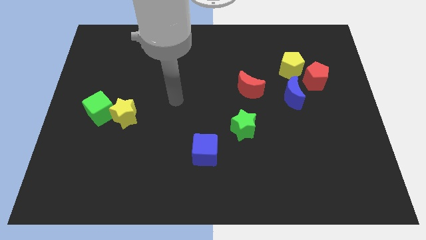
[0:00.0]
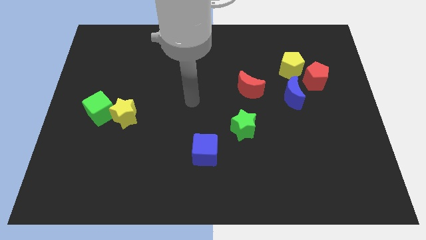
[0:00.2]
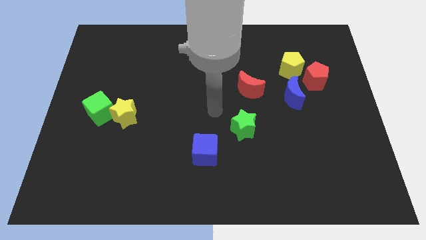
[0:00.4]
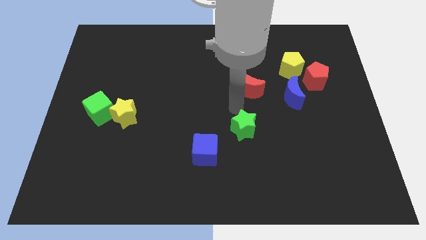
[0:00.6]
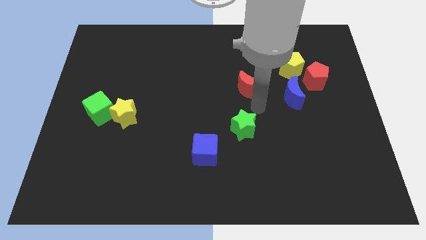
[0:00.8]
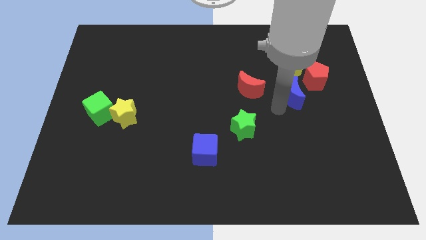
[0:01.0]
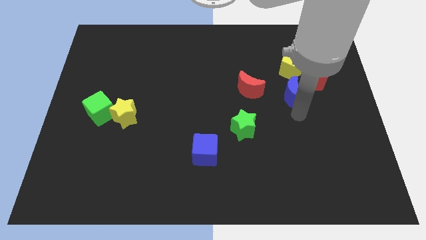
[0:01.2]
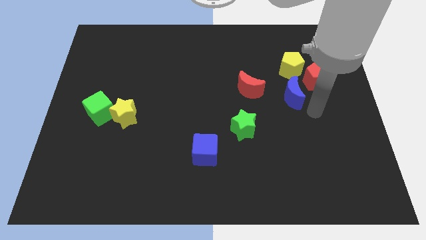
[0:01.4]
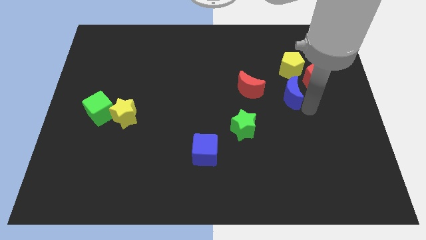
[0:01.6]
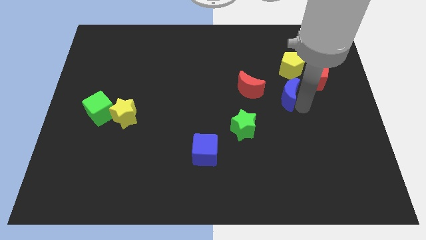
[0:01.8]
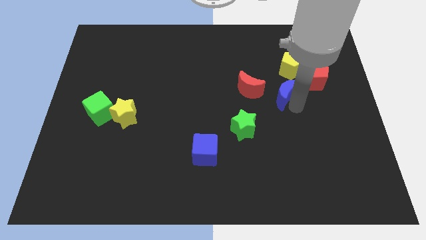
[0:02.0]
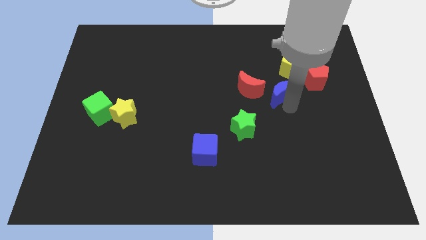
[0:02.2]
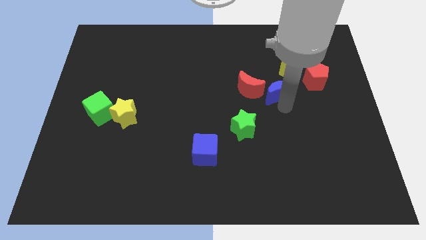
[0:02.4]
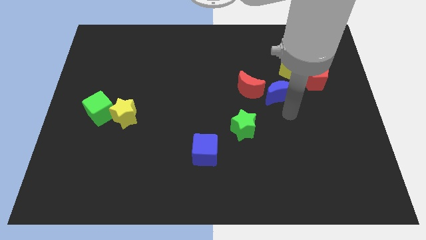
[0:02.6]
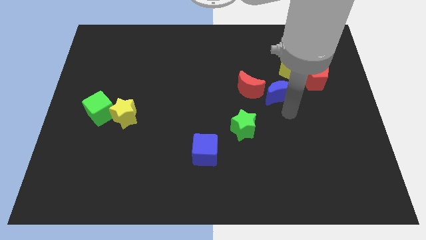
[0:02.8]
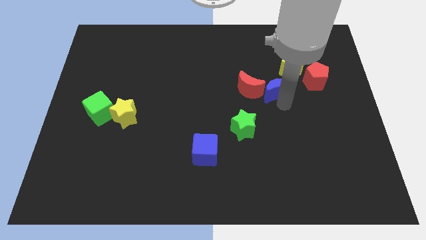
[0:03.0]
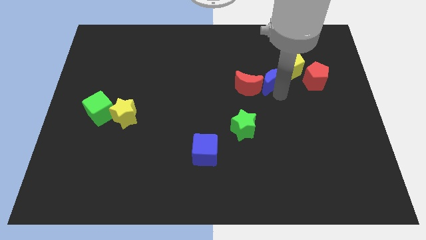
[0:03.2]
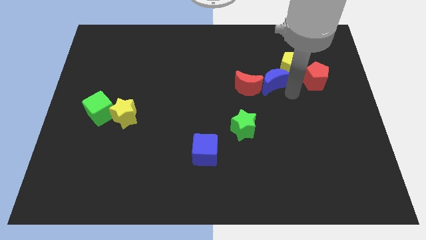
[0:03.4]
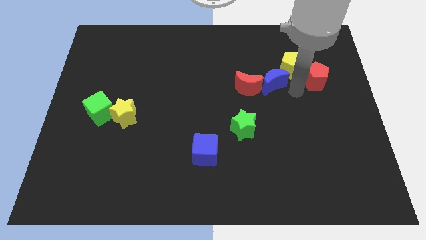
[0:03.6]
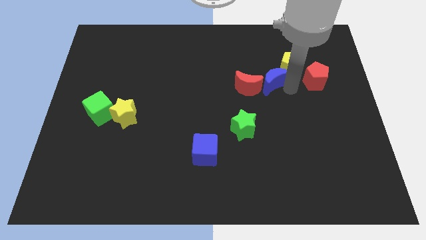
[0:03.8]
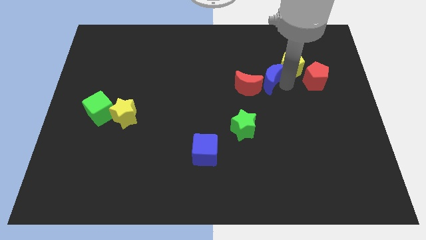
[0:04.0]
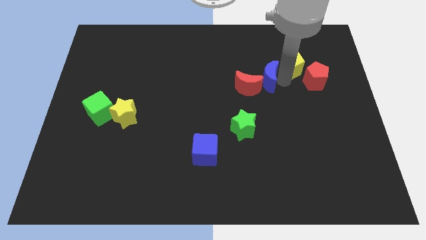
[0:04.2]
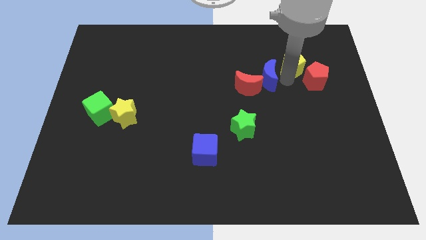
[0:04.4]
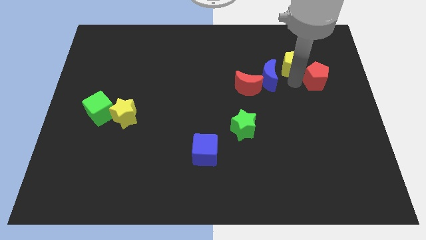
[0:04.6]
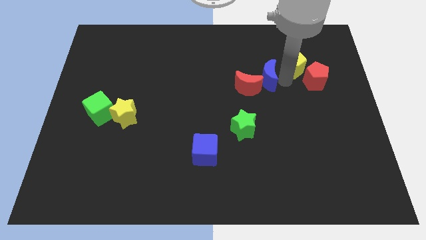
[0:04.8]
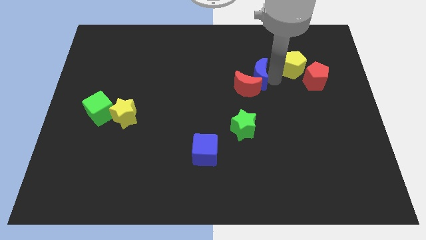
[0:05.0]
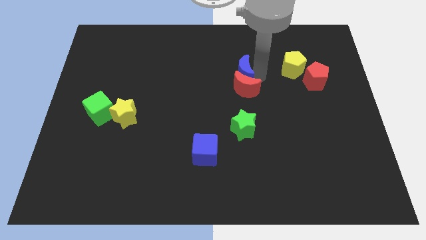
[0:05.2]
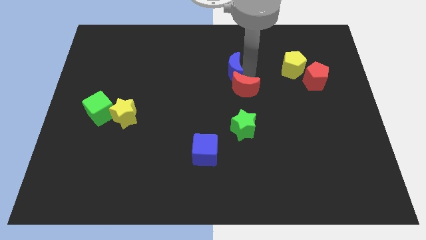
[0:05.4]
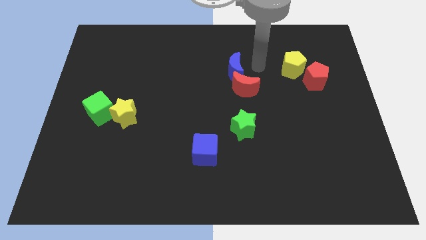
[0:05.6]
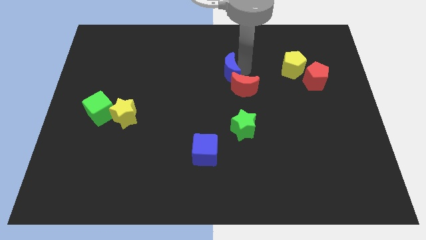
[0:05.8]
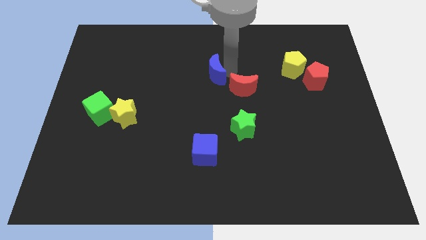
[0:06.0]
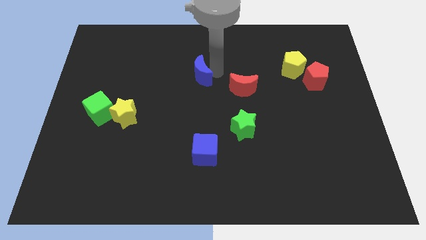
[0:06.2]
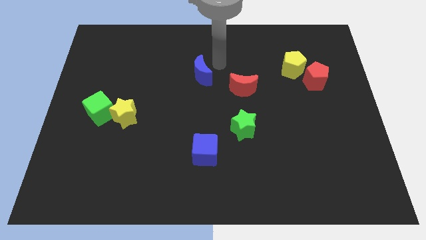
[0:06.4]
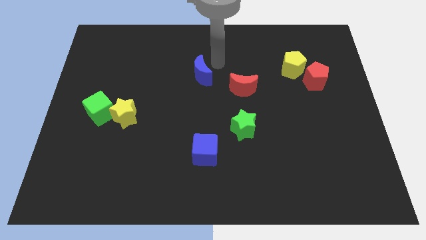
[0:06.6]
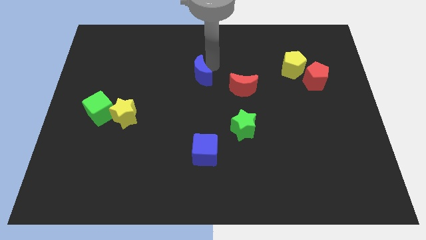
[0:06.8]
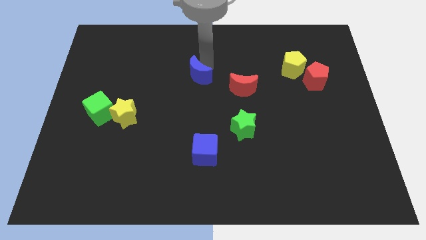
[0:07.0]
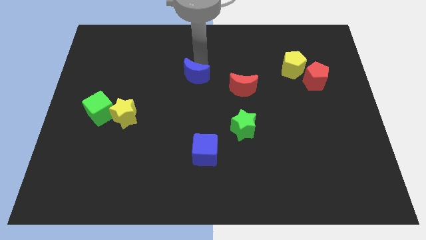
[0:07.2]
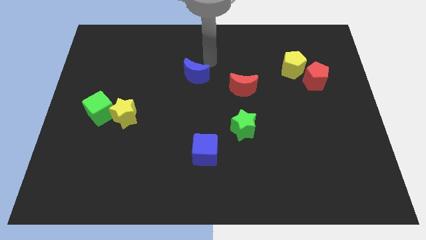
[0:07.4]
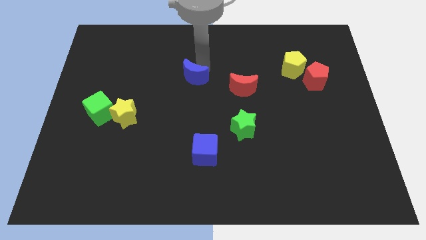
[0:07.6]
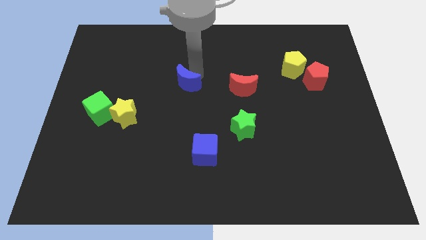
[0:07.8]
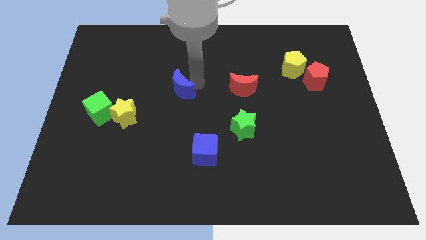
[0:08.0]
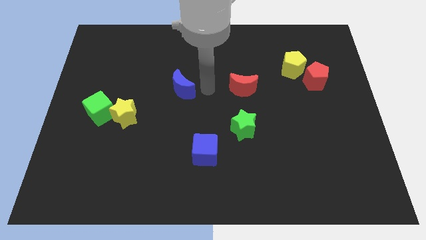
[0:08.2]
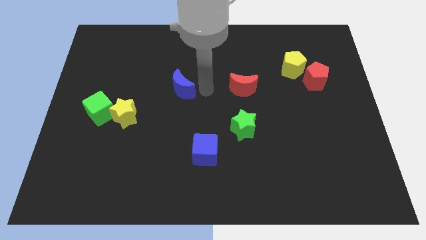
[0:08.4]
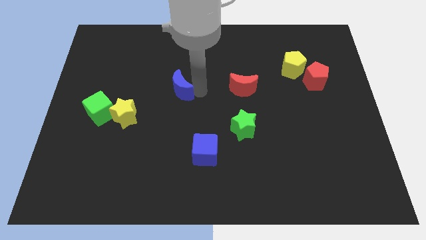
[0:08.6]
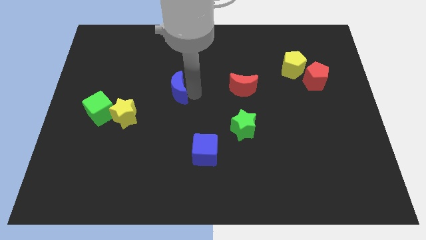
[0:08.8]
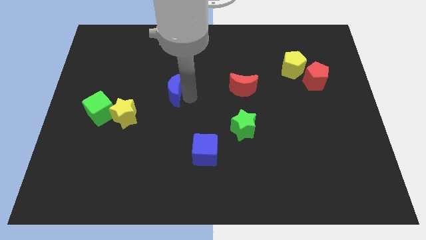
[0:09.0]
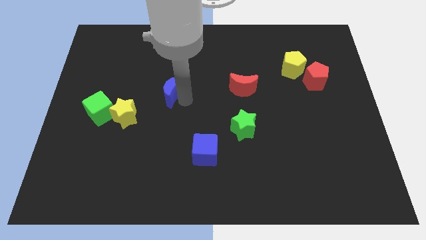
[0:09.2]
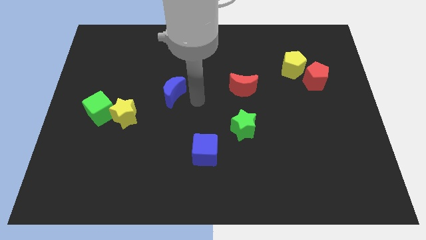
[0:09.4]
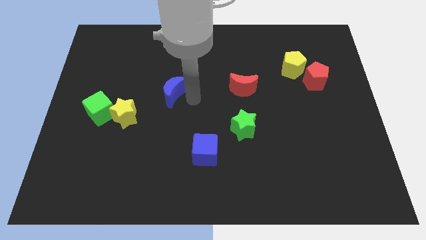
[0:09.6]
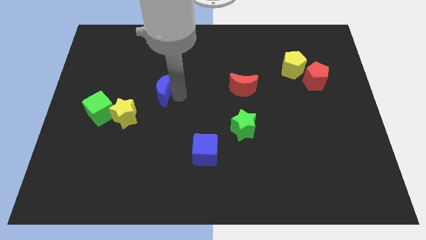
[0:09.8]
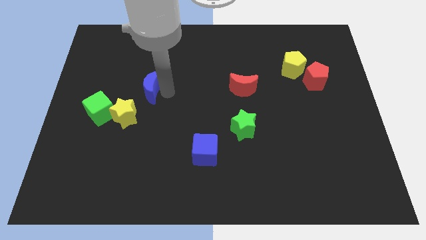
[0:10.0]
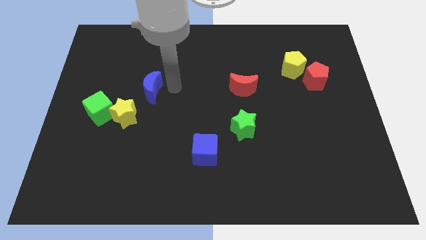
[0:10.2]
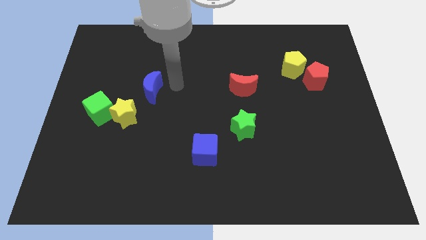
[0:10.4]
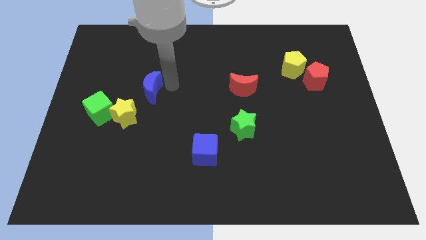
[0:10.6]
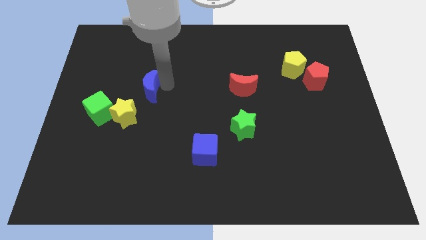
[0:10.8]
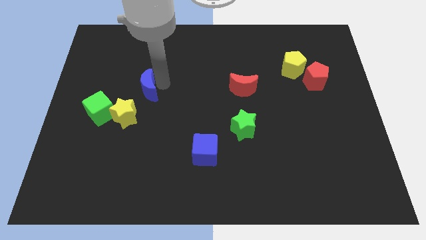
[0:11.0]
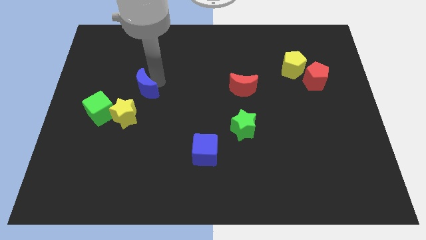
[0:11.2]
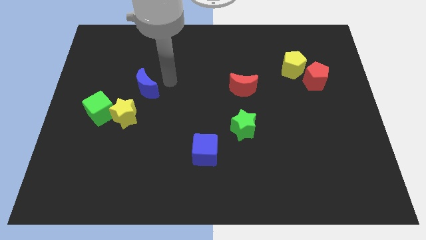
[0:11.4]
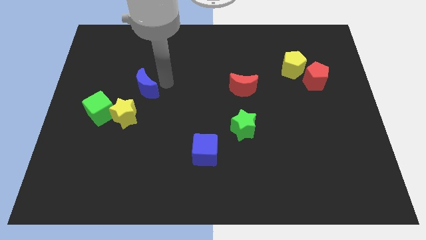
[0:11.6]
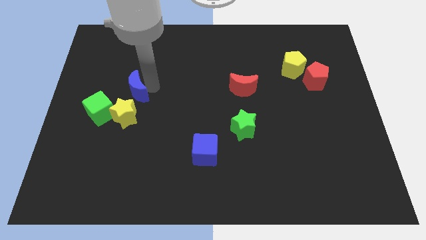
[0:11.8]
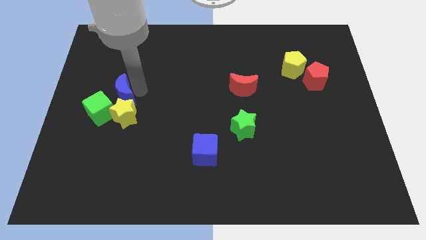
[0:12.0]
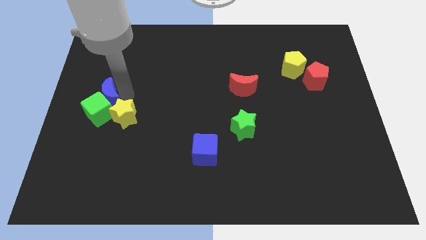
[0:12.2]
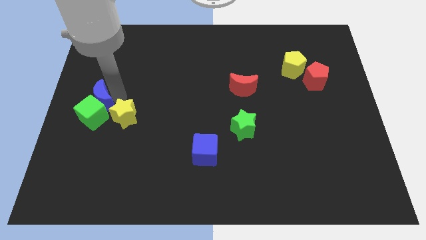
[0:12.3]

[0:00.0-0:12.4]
push the blue moon to the left side
